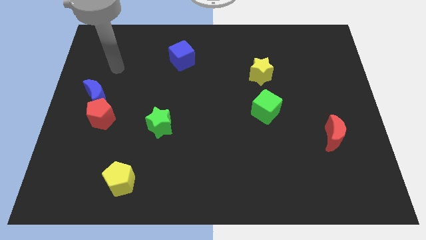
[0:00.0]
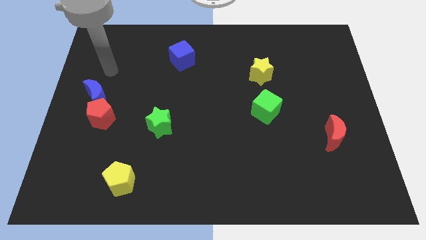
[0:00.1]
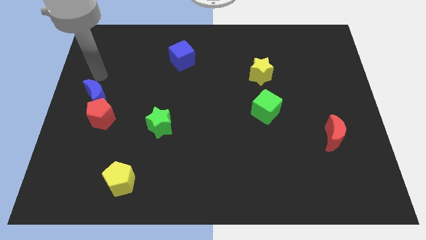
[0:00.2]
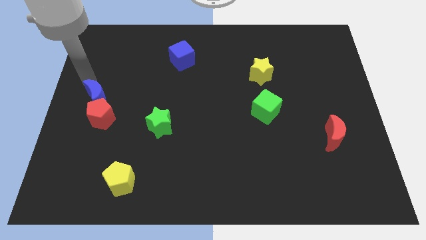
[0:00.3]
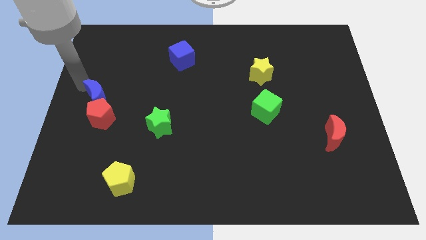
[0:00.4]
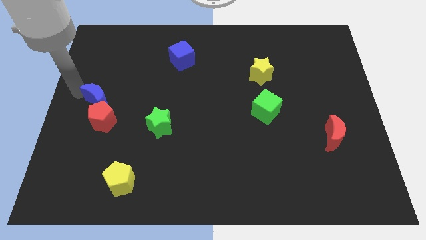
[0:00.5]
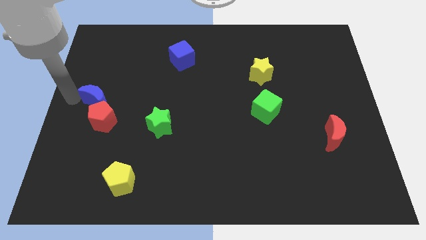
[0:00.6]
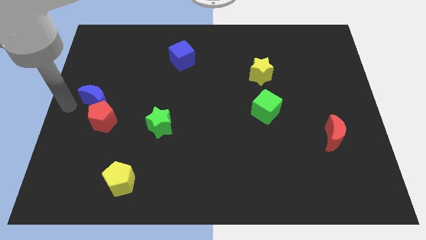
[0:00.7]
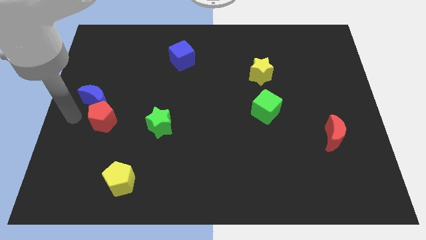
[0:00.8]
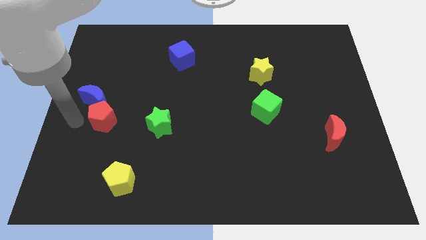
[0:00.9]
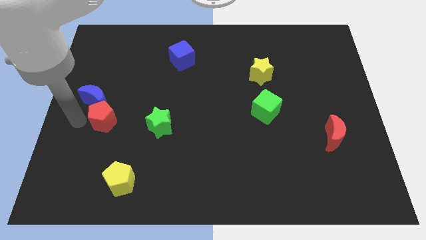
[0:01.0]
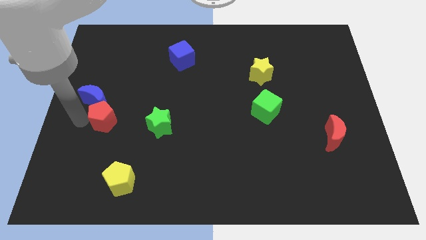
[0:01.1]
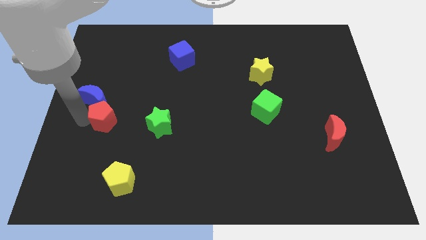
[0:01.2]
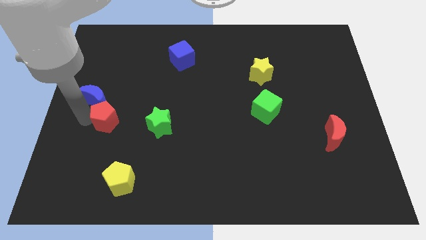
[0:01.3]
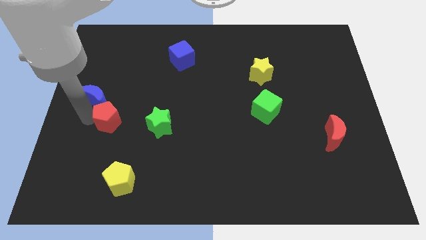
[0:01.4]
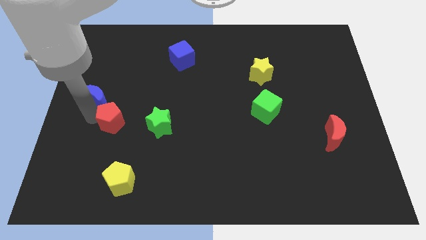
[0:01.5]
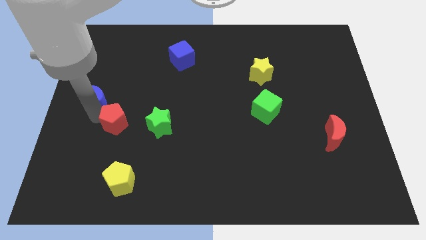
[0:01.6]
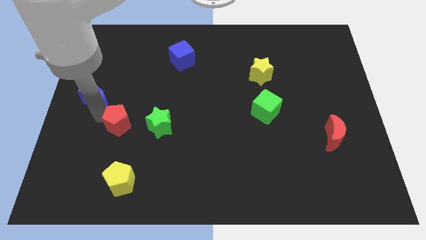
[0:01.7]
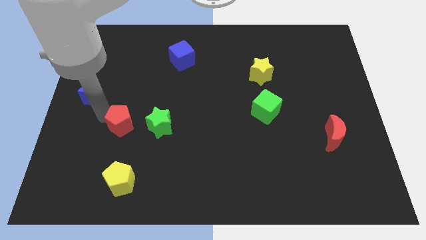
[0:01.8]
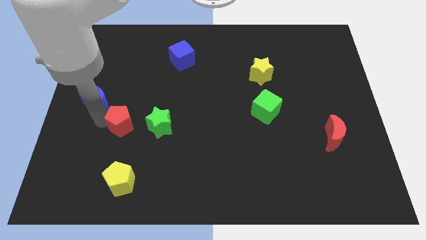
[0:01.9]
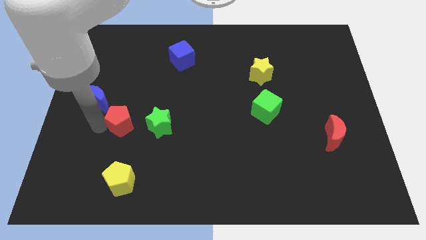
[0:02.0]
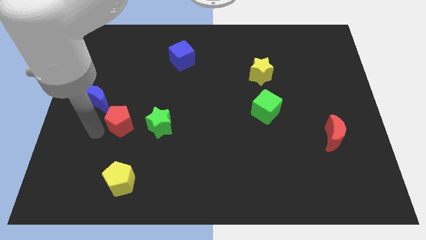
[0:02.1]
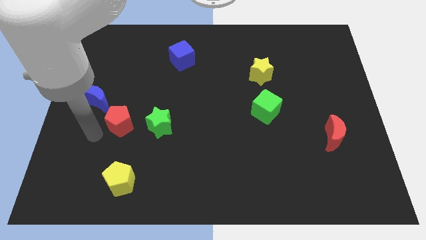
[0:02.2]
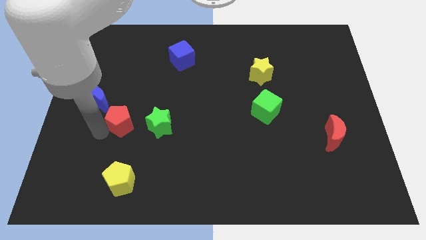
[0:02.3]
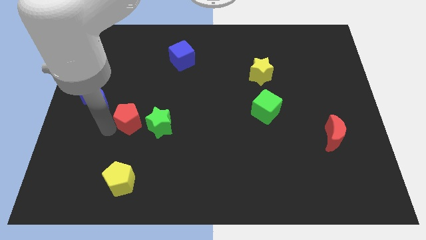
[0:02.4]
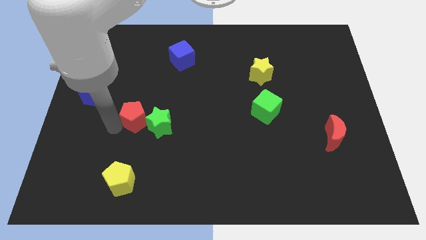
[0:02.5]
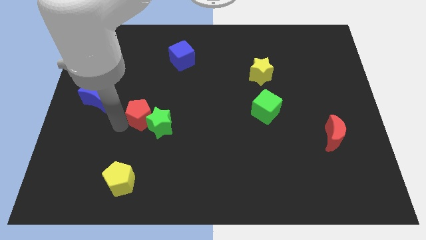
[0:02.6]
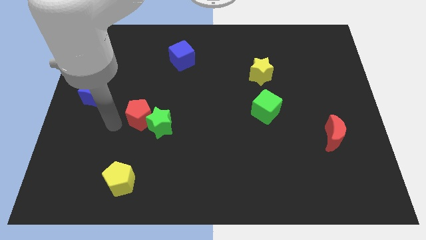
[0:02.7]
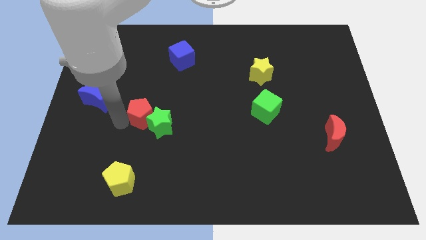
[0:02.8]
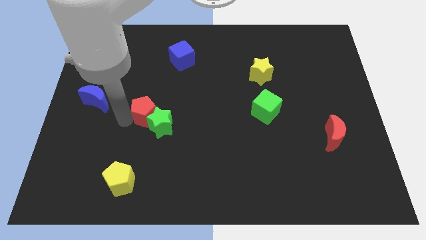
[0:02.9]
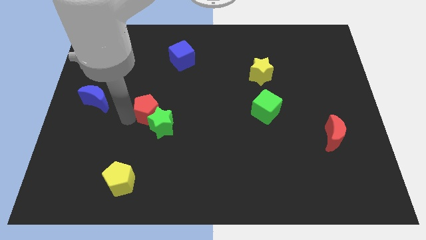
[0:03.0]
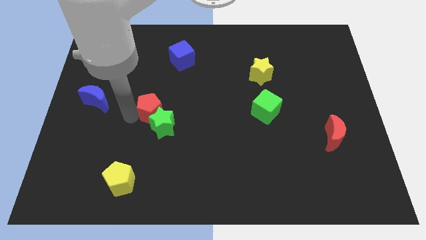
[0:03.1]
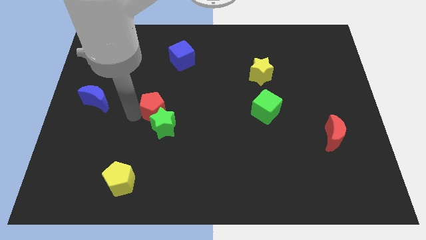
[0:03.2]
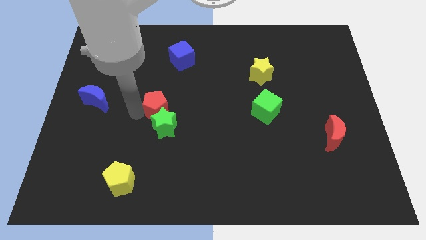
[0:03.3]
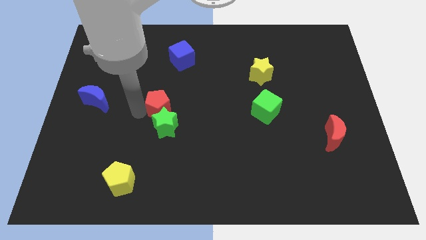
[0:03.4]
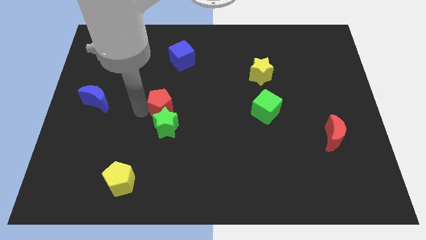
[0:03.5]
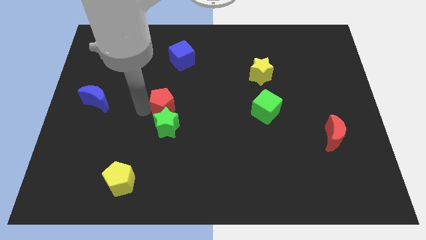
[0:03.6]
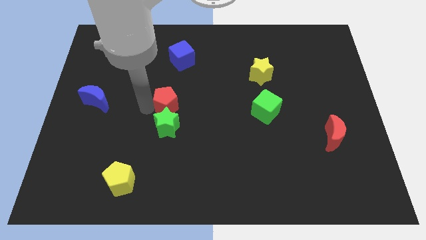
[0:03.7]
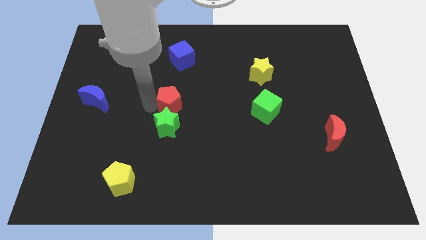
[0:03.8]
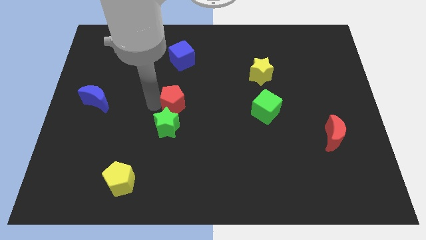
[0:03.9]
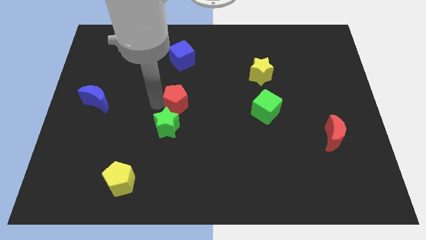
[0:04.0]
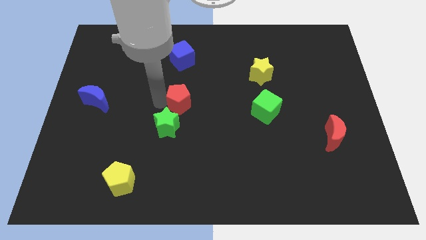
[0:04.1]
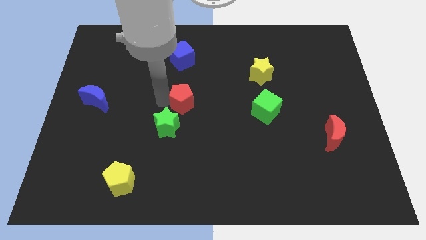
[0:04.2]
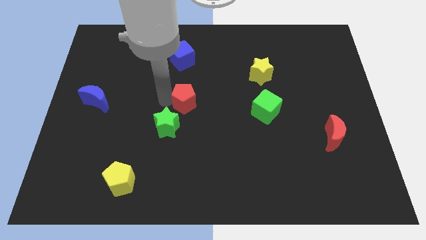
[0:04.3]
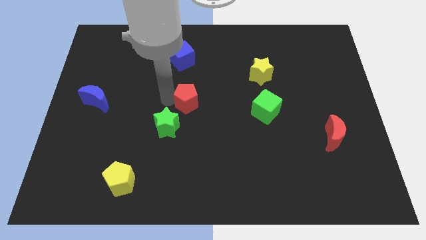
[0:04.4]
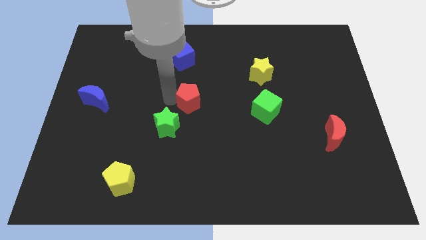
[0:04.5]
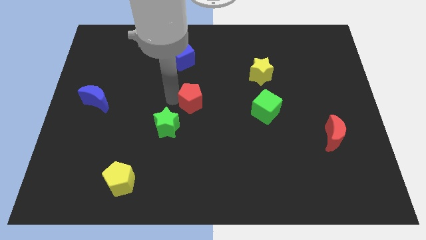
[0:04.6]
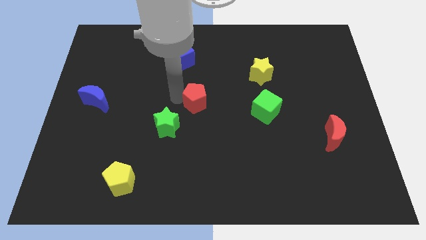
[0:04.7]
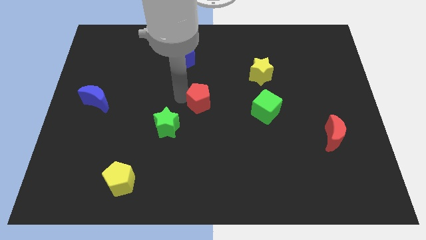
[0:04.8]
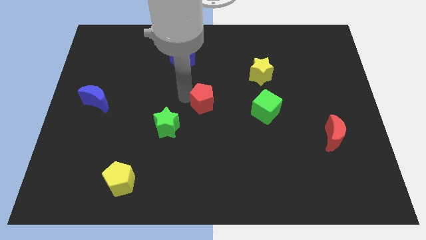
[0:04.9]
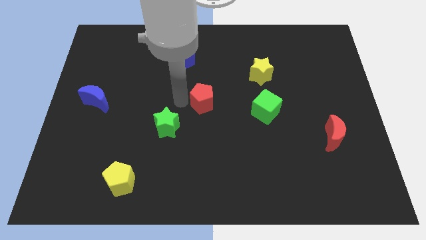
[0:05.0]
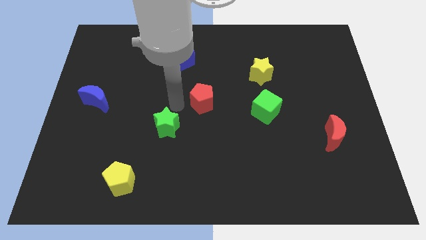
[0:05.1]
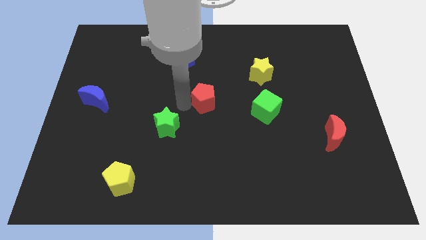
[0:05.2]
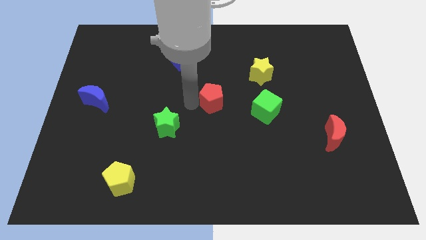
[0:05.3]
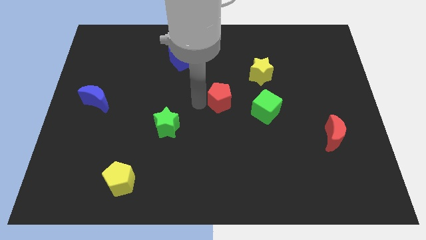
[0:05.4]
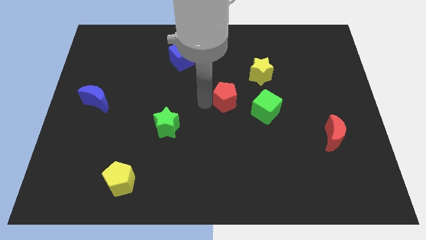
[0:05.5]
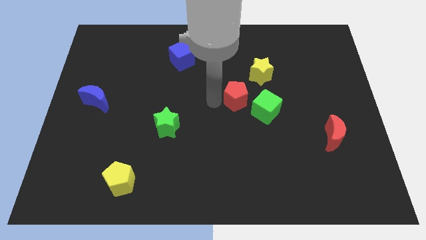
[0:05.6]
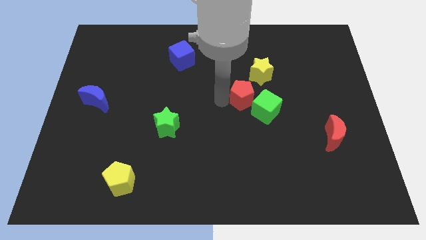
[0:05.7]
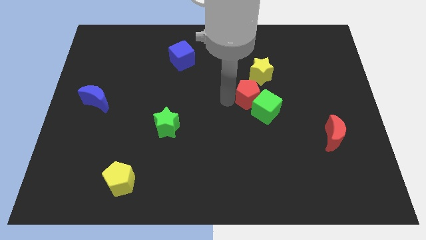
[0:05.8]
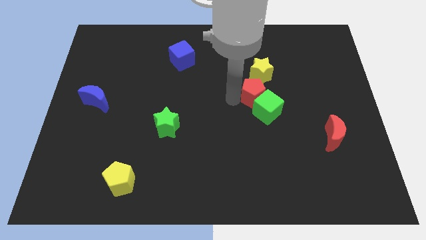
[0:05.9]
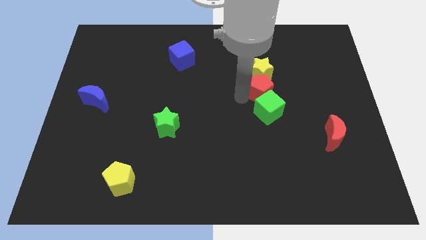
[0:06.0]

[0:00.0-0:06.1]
put the red pentagon to the top right of the green cube

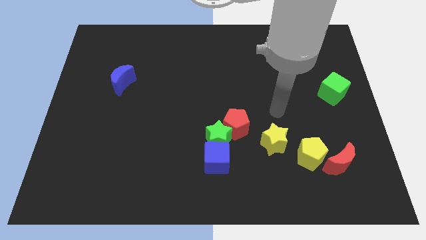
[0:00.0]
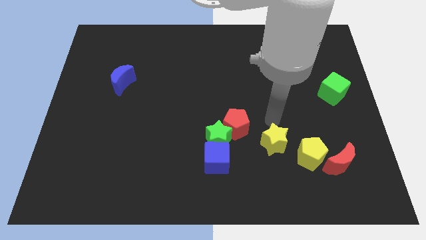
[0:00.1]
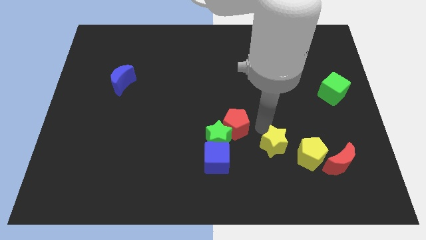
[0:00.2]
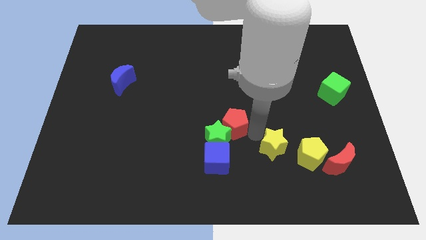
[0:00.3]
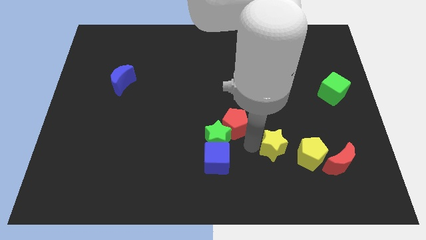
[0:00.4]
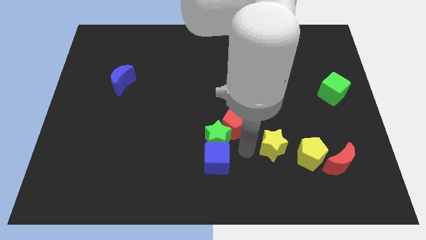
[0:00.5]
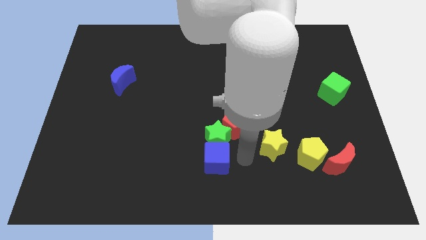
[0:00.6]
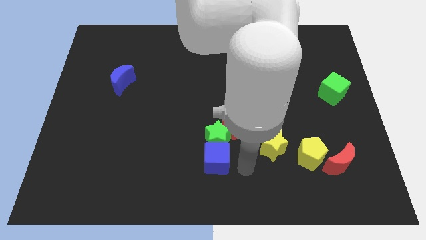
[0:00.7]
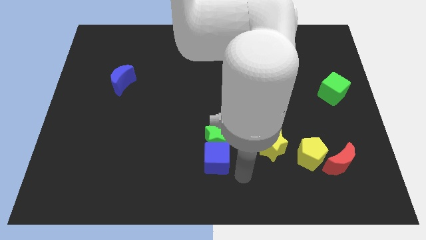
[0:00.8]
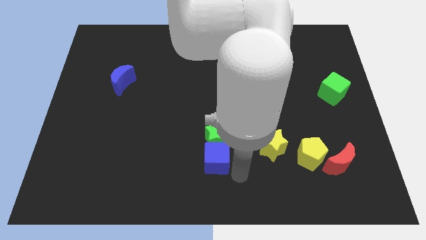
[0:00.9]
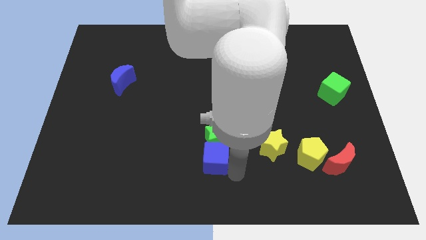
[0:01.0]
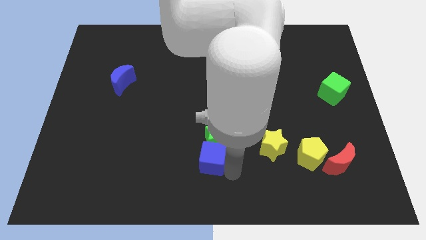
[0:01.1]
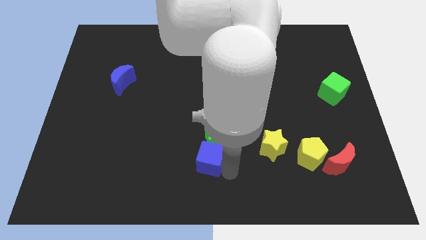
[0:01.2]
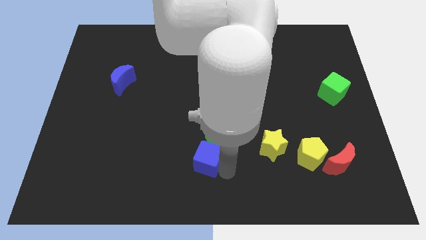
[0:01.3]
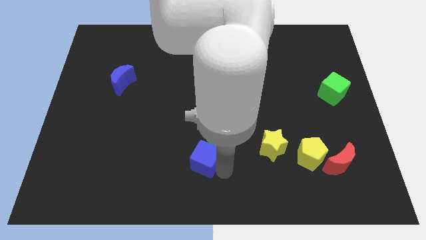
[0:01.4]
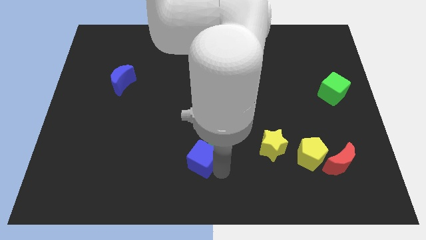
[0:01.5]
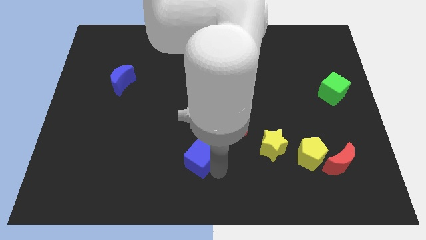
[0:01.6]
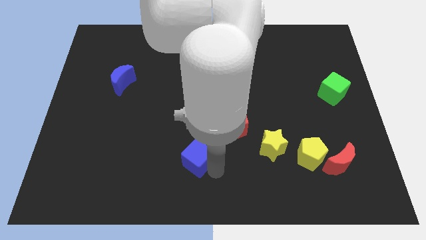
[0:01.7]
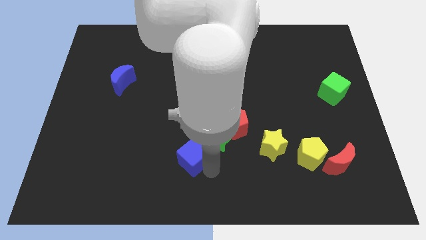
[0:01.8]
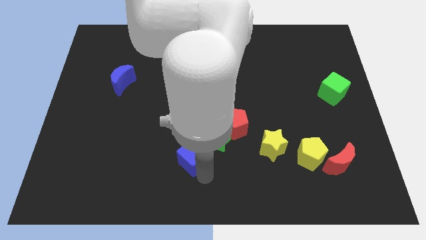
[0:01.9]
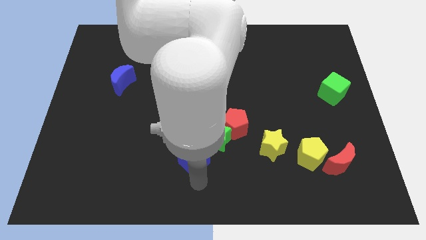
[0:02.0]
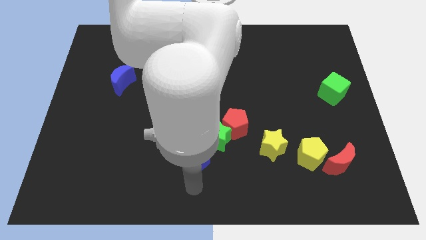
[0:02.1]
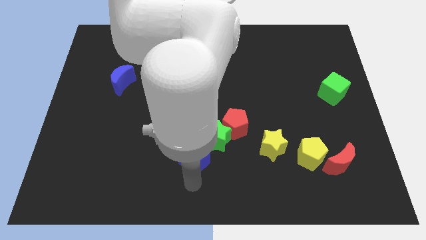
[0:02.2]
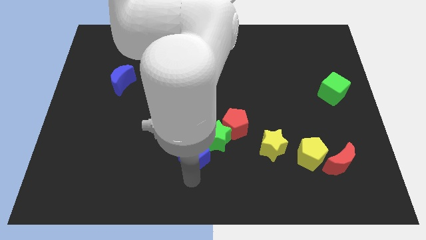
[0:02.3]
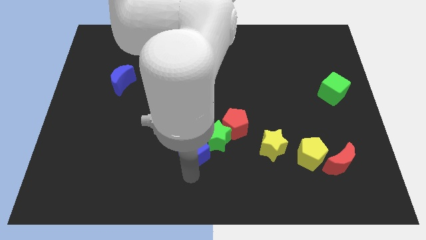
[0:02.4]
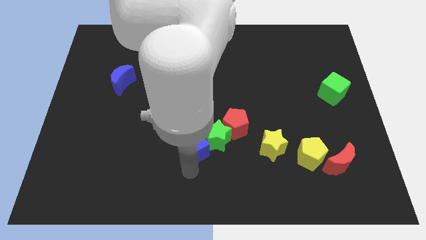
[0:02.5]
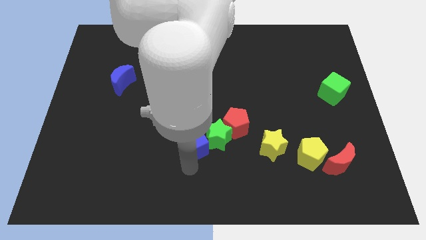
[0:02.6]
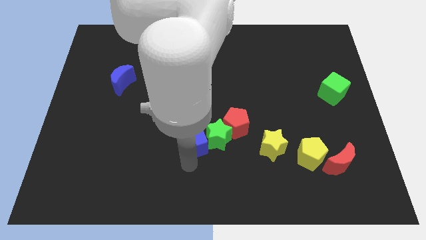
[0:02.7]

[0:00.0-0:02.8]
slide the blue cube to the top left of the green star
